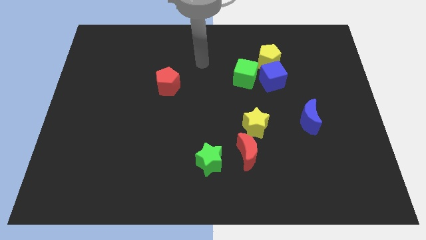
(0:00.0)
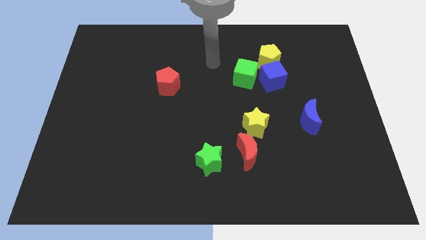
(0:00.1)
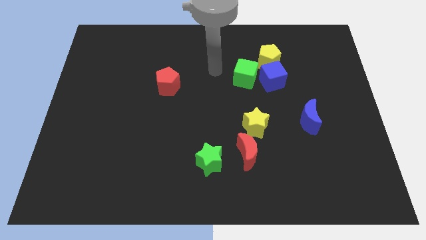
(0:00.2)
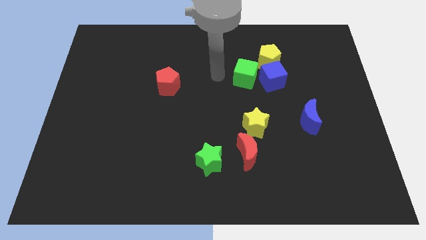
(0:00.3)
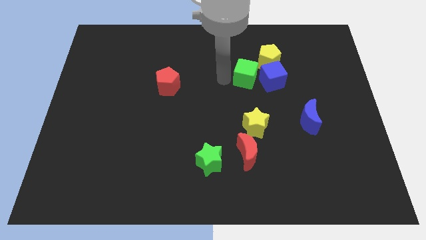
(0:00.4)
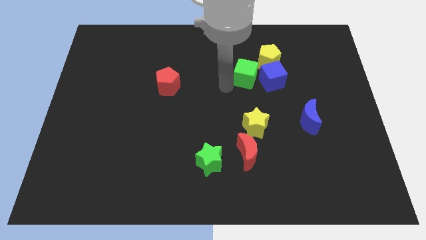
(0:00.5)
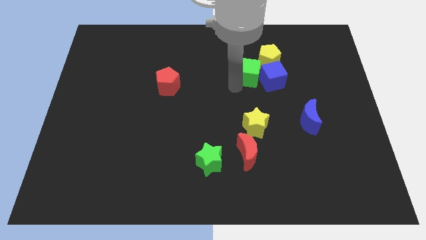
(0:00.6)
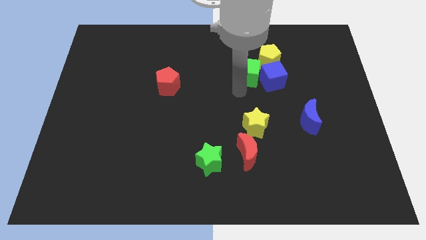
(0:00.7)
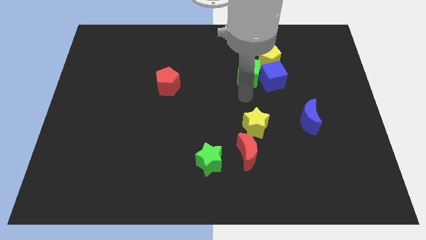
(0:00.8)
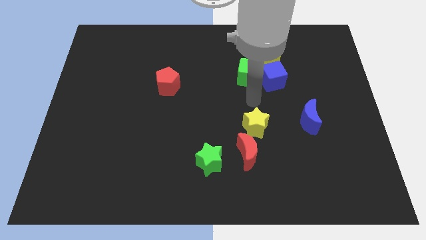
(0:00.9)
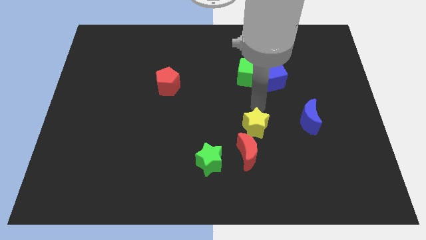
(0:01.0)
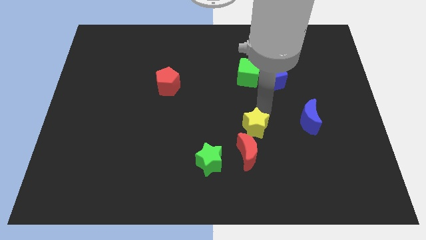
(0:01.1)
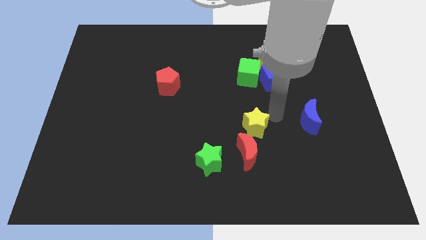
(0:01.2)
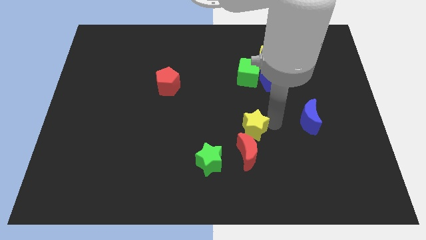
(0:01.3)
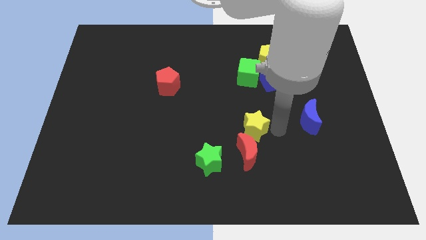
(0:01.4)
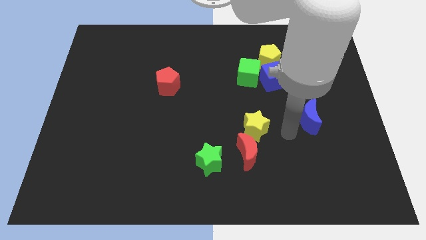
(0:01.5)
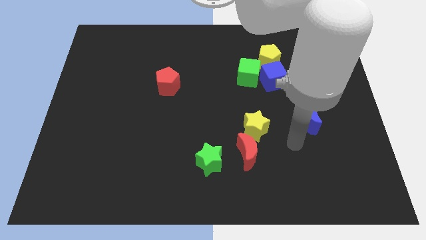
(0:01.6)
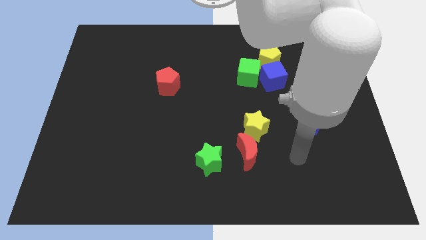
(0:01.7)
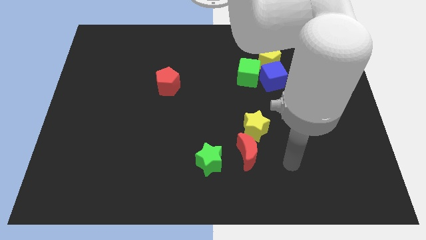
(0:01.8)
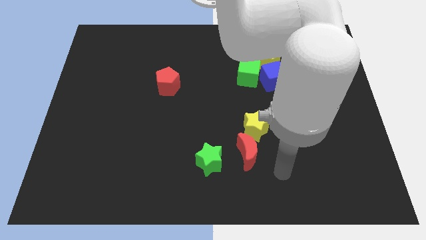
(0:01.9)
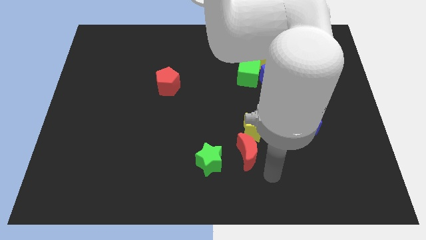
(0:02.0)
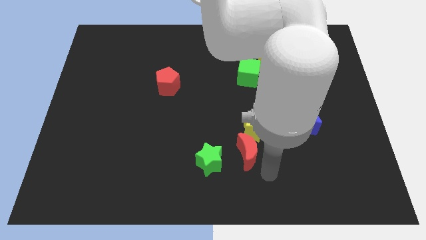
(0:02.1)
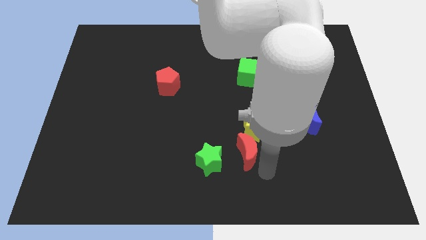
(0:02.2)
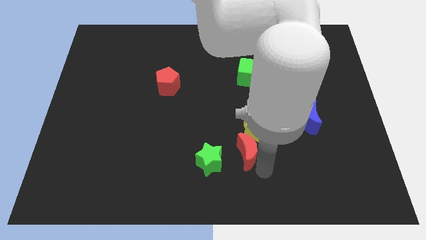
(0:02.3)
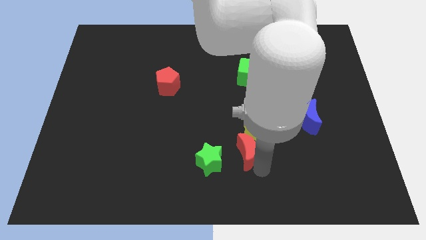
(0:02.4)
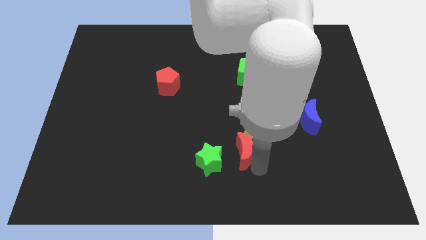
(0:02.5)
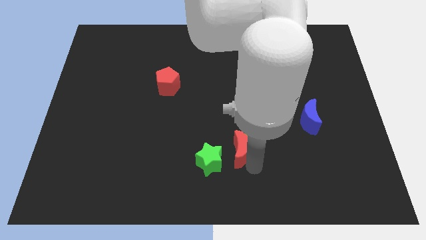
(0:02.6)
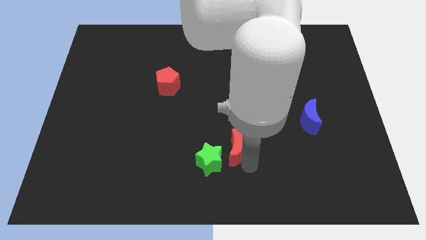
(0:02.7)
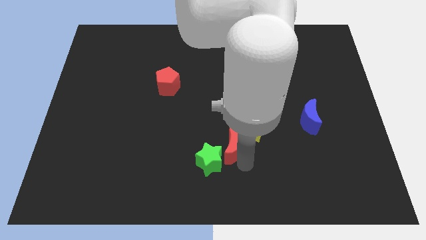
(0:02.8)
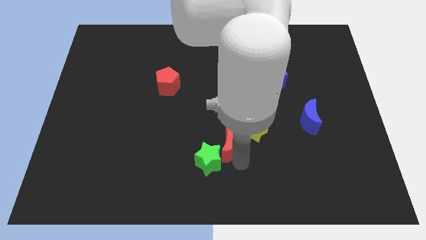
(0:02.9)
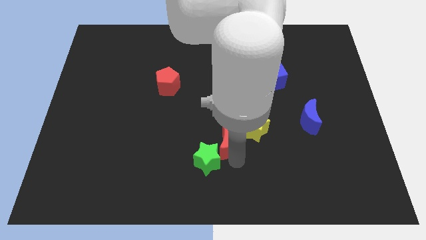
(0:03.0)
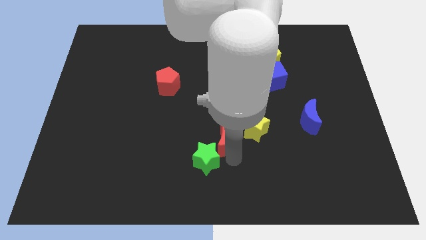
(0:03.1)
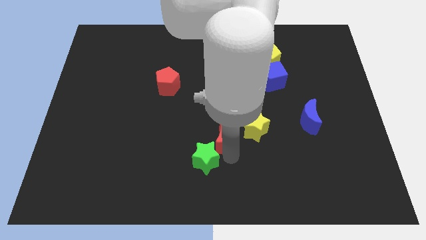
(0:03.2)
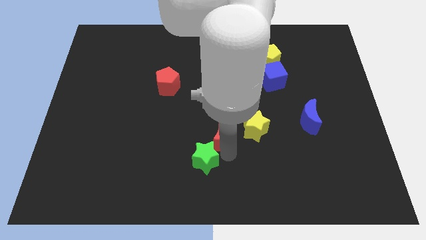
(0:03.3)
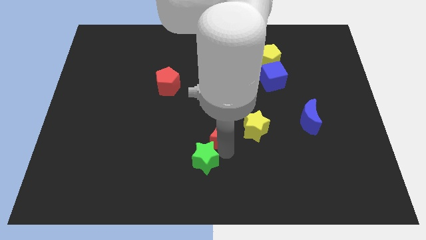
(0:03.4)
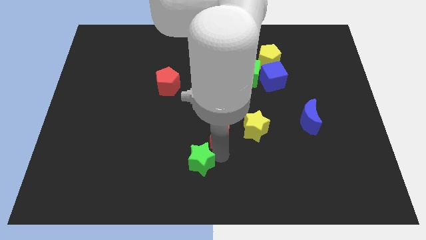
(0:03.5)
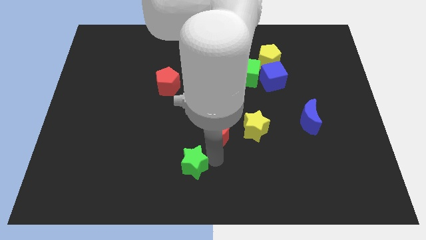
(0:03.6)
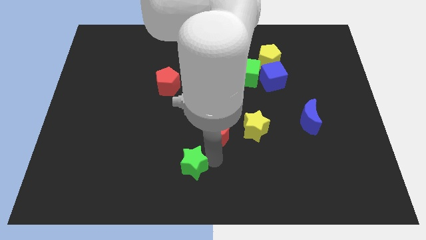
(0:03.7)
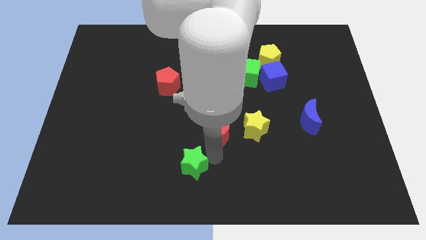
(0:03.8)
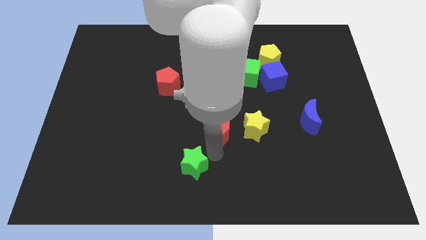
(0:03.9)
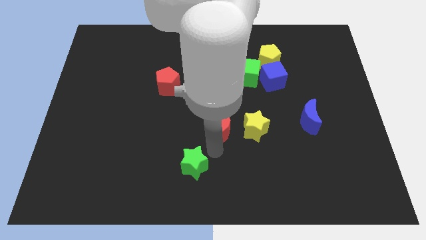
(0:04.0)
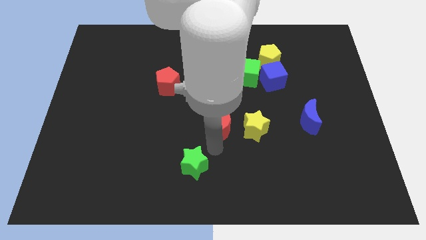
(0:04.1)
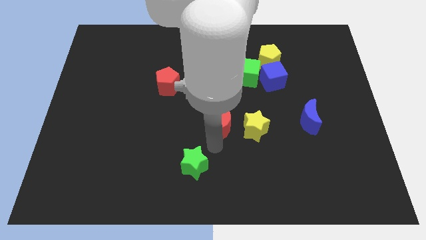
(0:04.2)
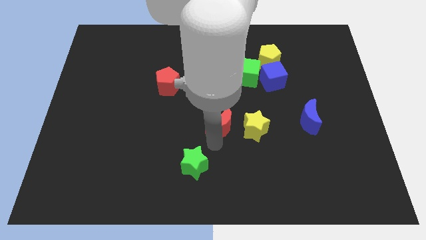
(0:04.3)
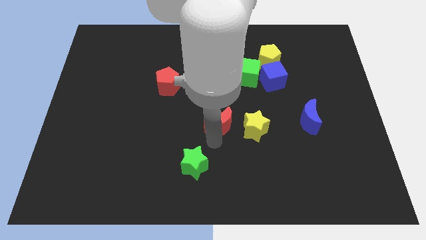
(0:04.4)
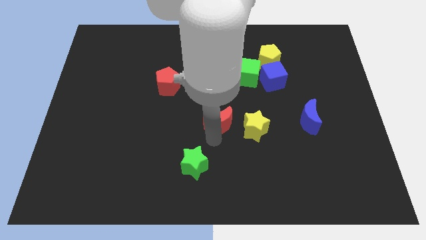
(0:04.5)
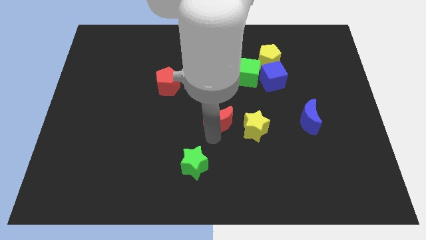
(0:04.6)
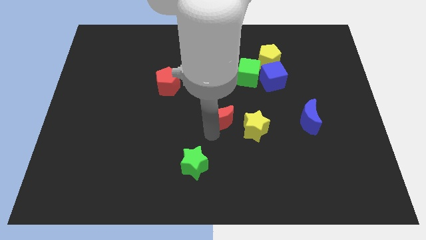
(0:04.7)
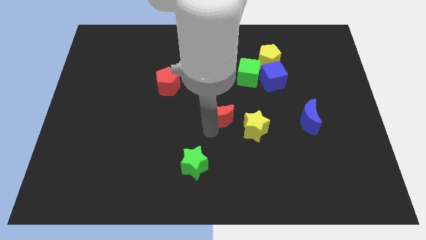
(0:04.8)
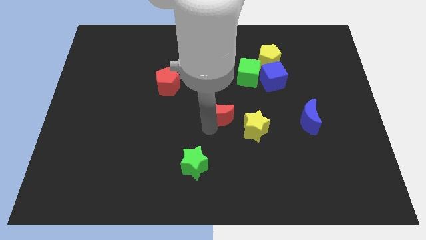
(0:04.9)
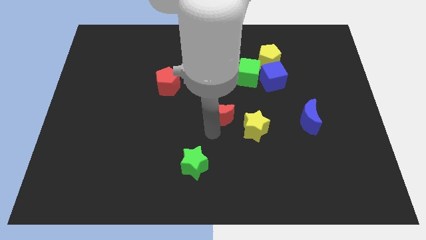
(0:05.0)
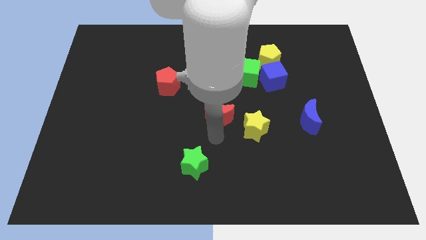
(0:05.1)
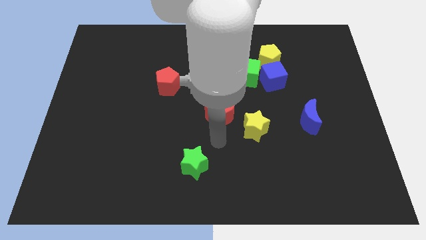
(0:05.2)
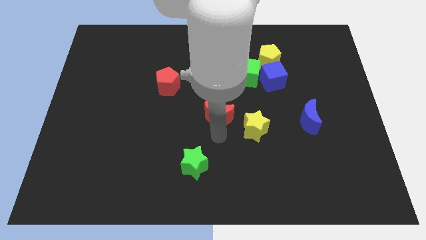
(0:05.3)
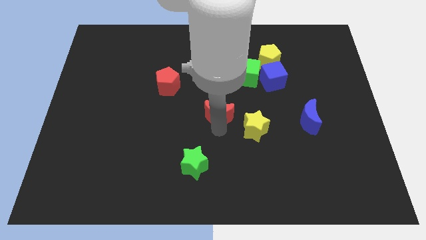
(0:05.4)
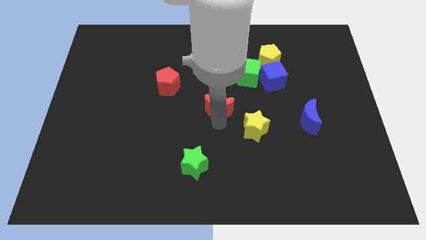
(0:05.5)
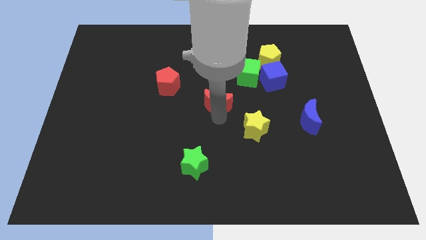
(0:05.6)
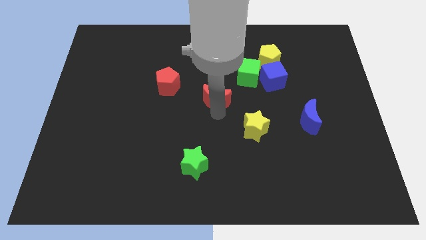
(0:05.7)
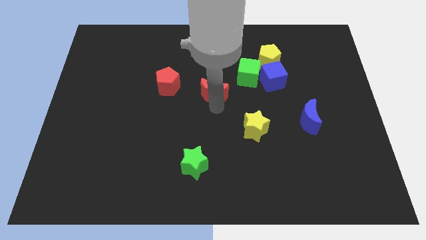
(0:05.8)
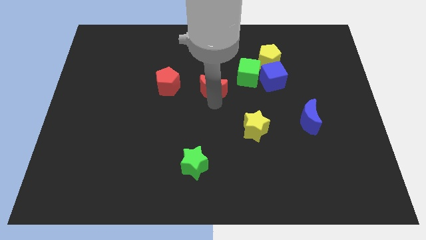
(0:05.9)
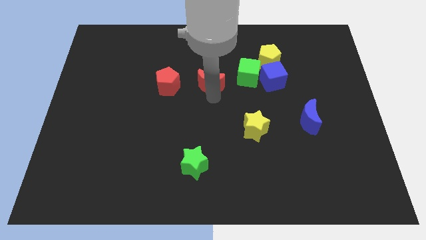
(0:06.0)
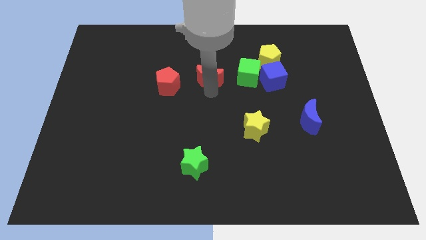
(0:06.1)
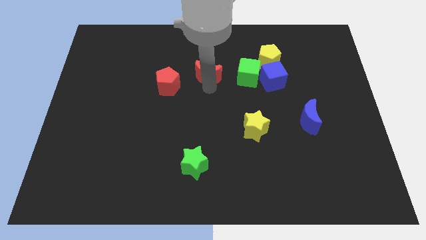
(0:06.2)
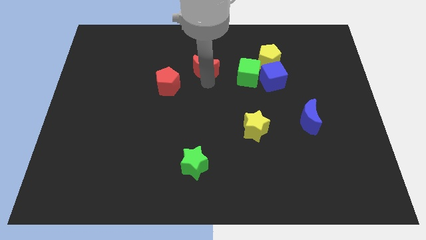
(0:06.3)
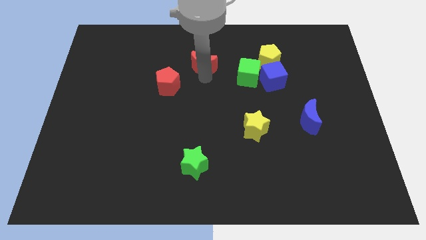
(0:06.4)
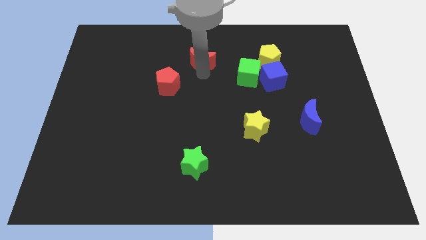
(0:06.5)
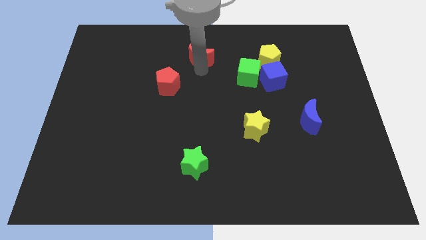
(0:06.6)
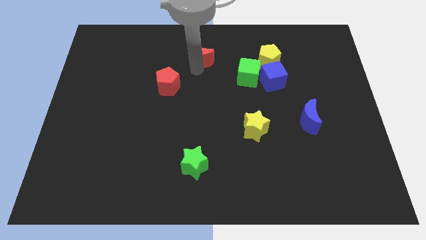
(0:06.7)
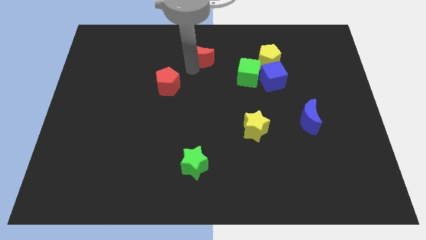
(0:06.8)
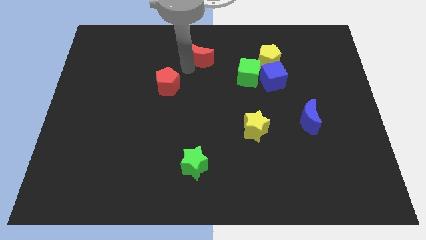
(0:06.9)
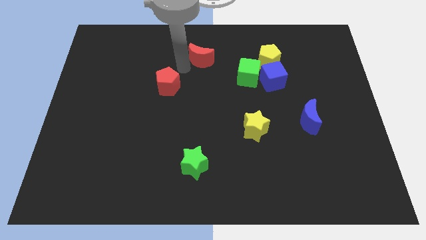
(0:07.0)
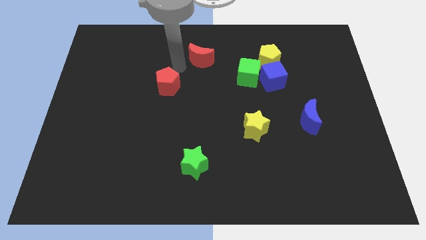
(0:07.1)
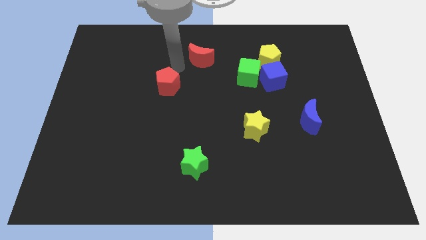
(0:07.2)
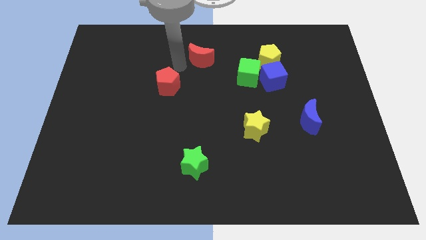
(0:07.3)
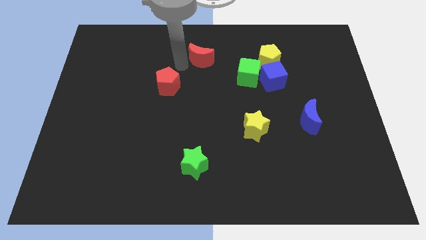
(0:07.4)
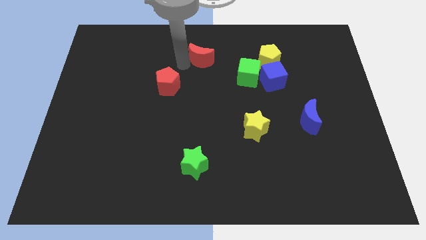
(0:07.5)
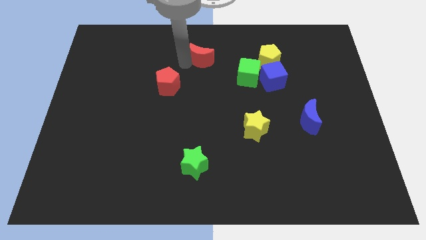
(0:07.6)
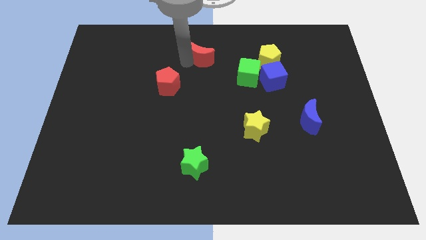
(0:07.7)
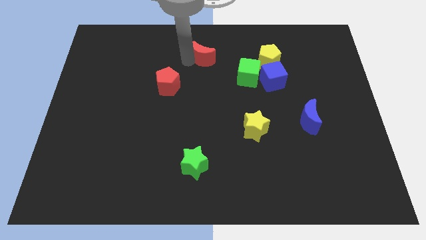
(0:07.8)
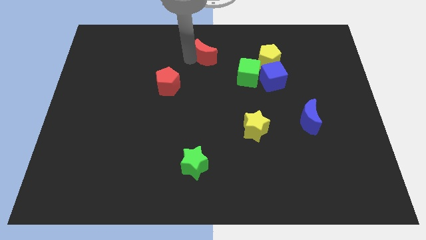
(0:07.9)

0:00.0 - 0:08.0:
slide the red moon to the towards your base

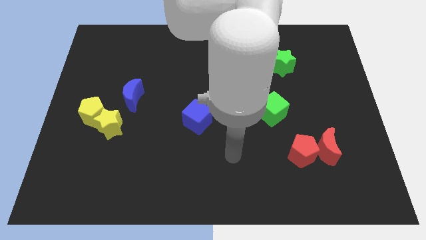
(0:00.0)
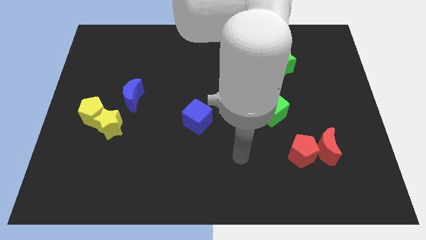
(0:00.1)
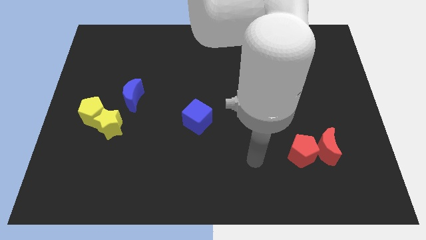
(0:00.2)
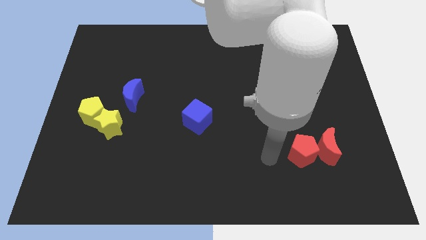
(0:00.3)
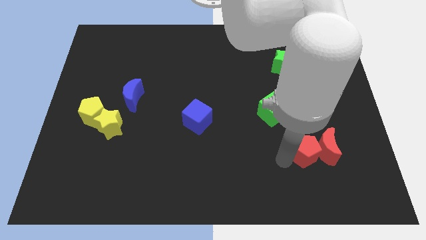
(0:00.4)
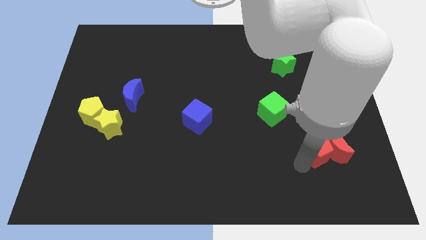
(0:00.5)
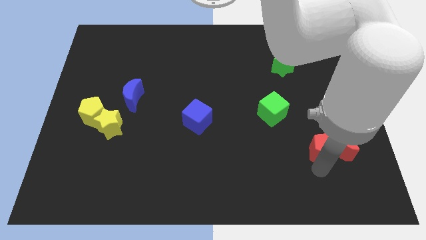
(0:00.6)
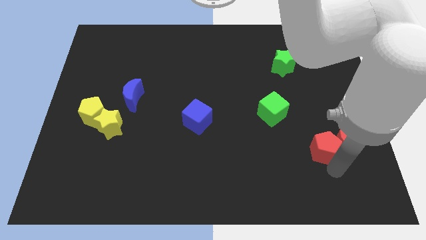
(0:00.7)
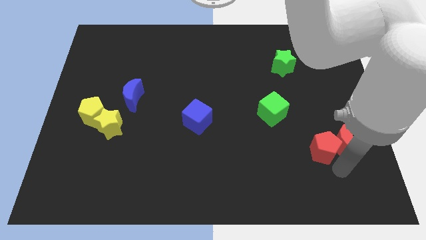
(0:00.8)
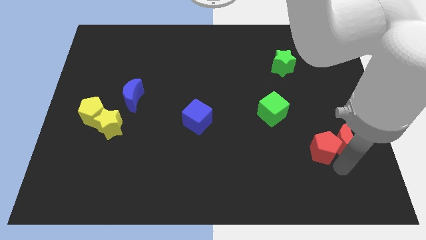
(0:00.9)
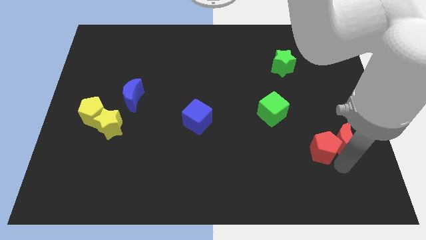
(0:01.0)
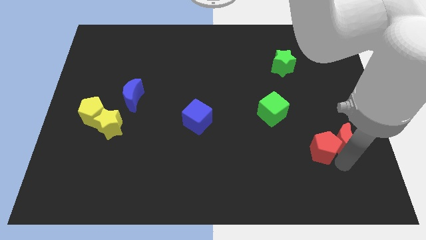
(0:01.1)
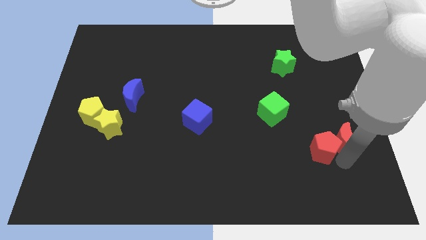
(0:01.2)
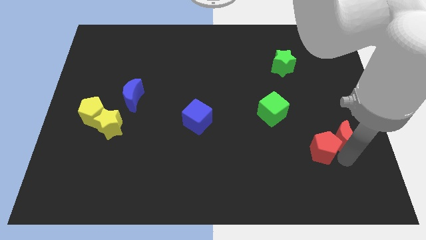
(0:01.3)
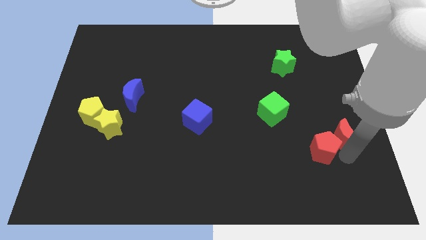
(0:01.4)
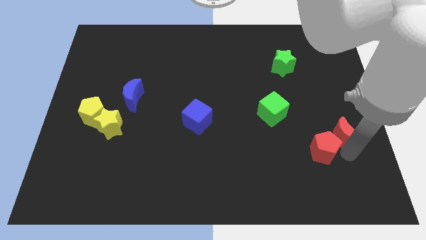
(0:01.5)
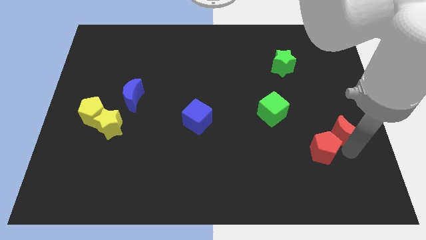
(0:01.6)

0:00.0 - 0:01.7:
slide the red moon to the center right
